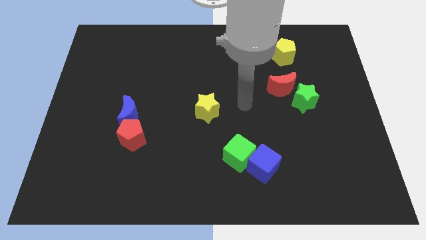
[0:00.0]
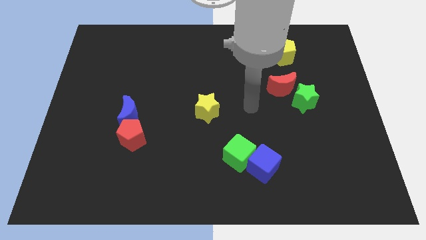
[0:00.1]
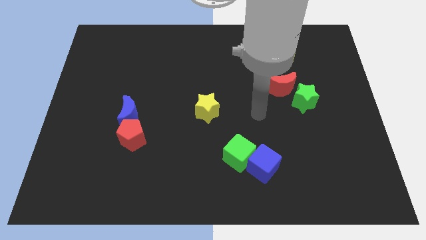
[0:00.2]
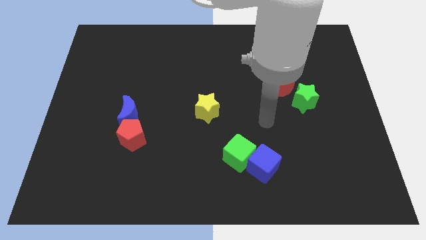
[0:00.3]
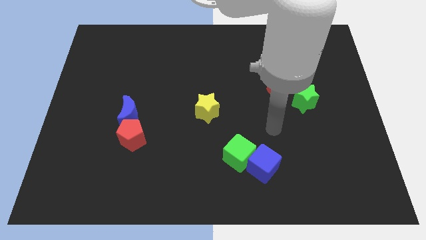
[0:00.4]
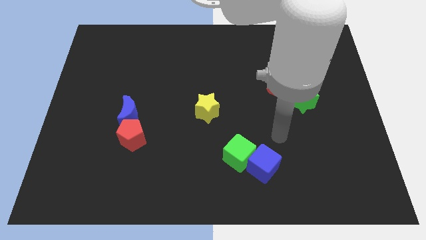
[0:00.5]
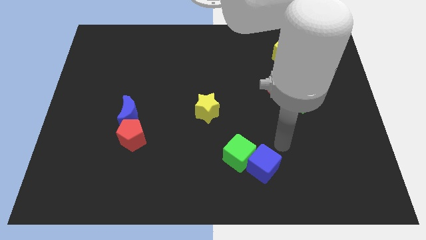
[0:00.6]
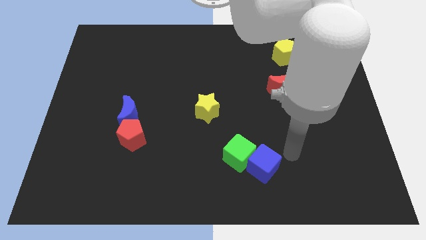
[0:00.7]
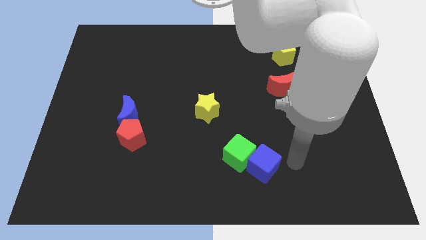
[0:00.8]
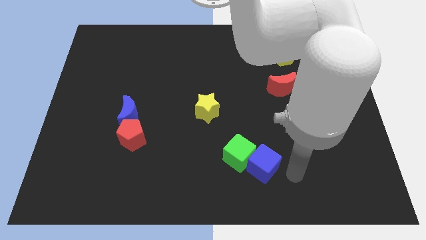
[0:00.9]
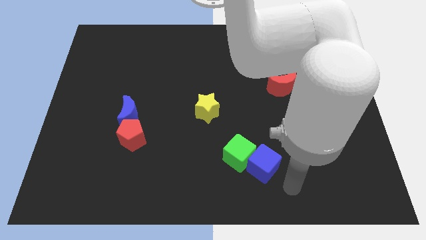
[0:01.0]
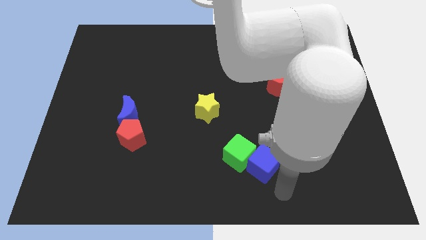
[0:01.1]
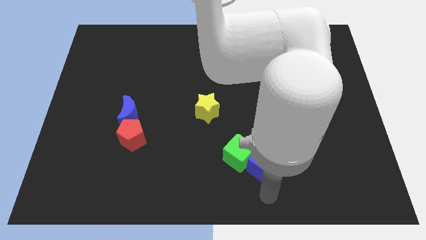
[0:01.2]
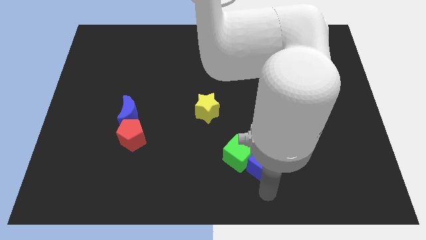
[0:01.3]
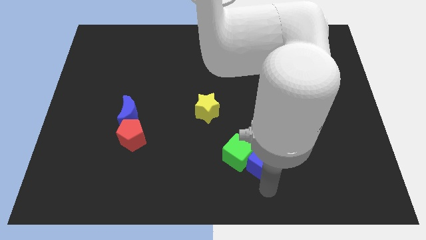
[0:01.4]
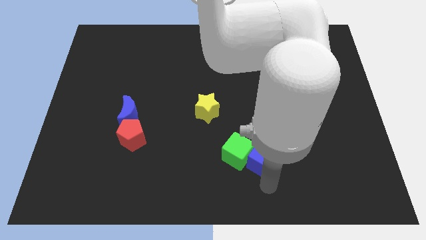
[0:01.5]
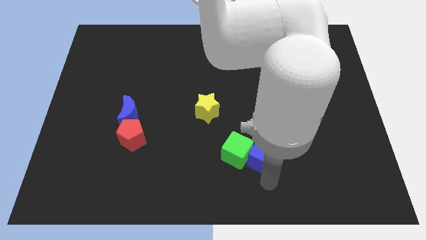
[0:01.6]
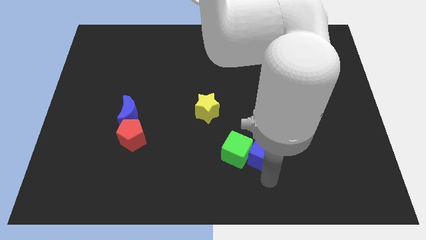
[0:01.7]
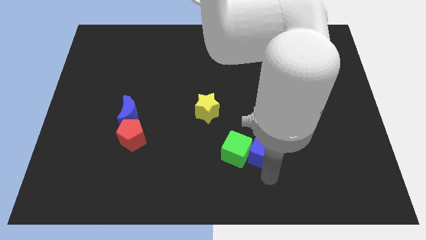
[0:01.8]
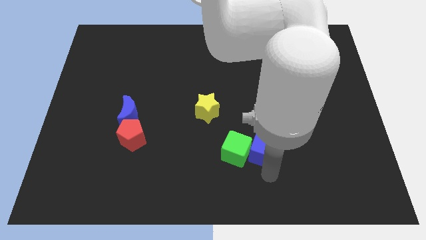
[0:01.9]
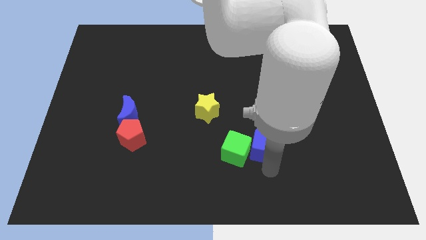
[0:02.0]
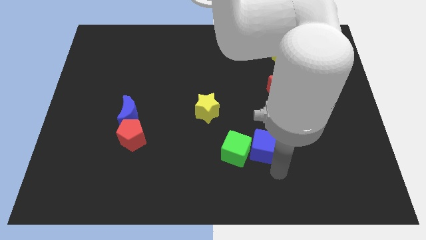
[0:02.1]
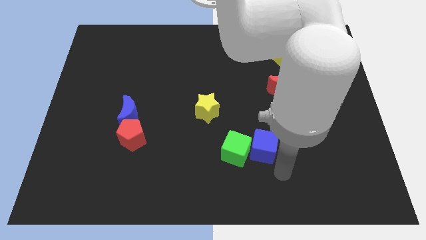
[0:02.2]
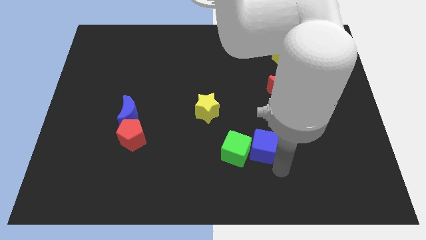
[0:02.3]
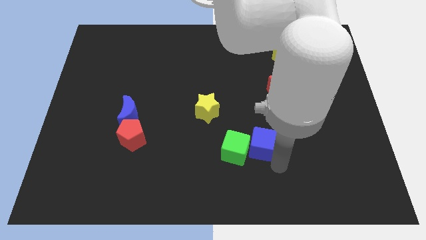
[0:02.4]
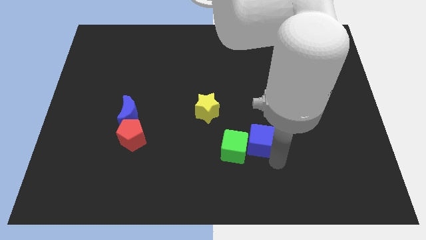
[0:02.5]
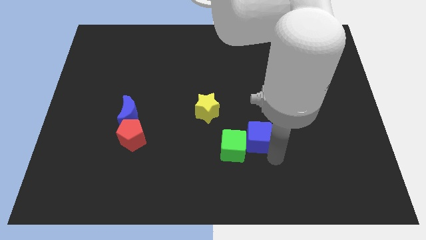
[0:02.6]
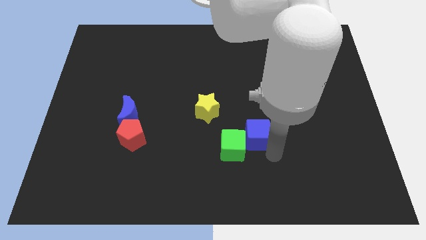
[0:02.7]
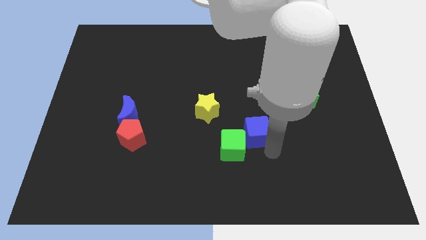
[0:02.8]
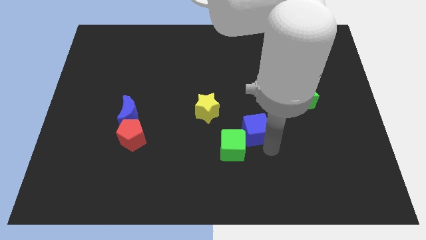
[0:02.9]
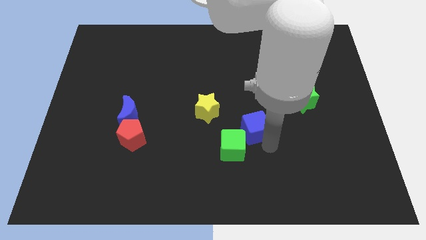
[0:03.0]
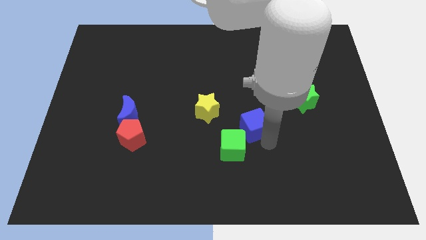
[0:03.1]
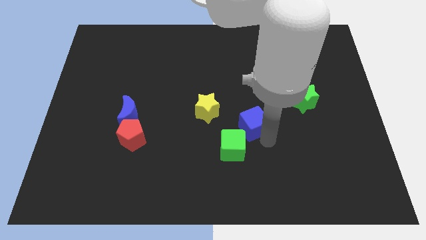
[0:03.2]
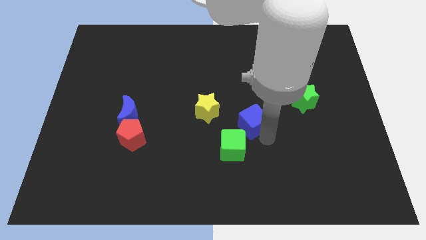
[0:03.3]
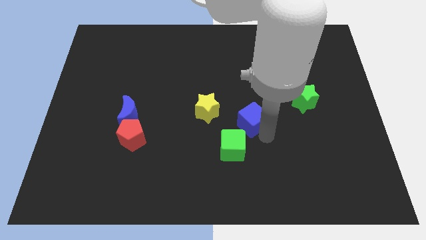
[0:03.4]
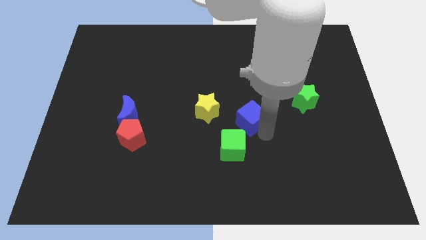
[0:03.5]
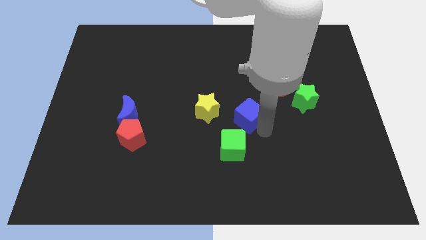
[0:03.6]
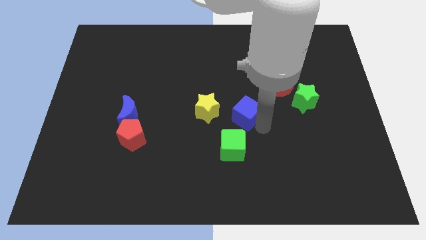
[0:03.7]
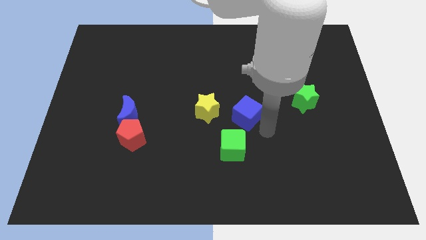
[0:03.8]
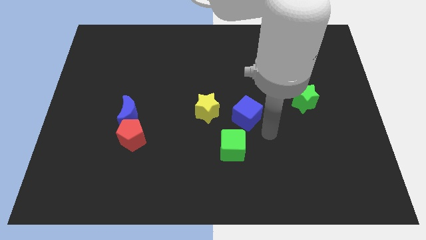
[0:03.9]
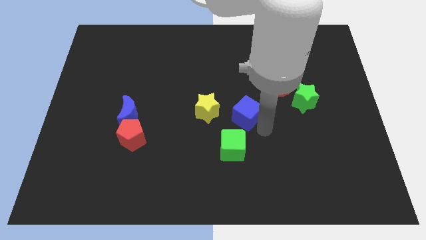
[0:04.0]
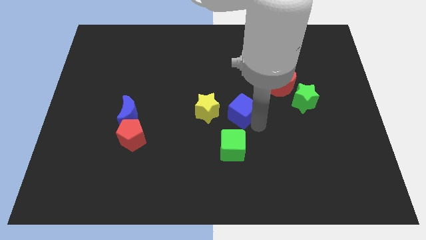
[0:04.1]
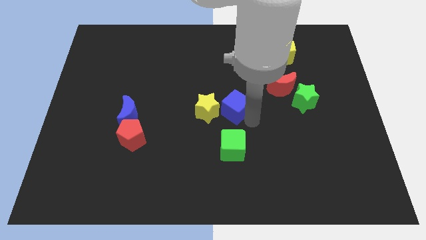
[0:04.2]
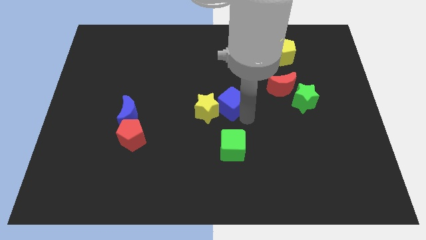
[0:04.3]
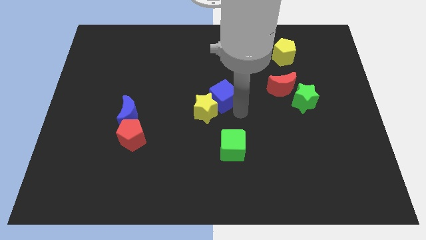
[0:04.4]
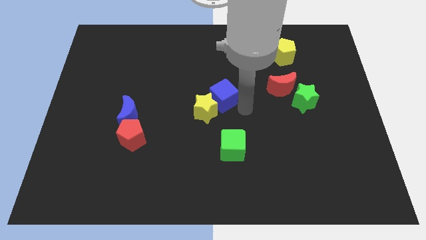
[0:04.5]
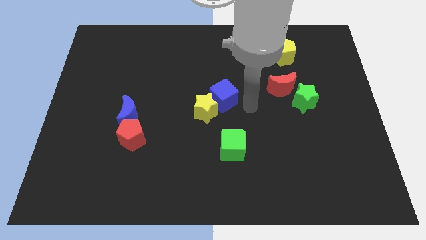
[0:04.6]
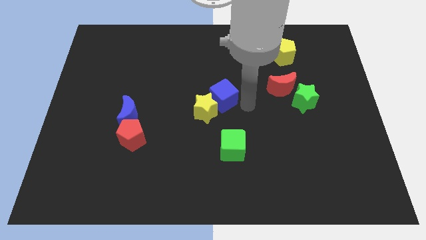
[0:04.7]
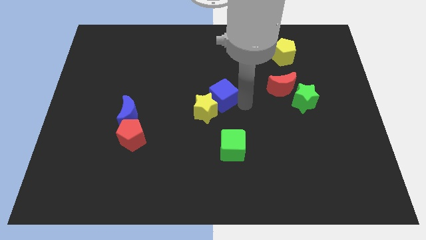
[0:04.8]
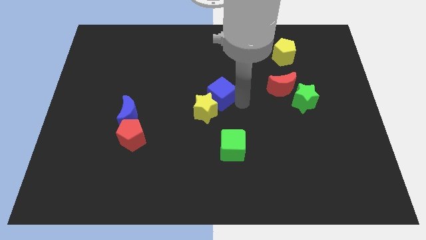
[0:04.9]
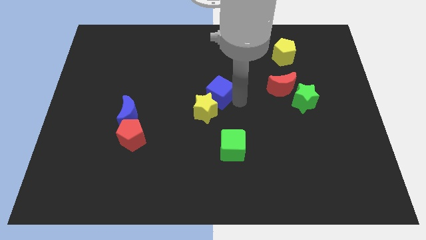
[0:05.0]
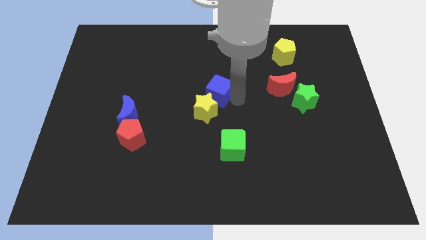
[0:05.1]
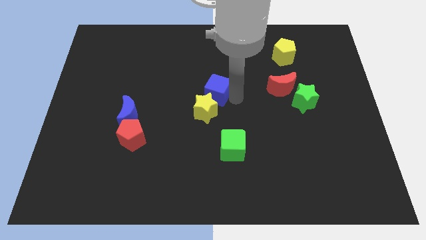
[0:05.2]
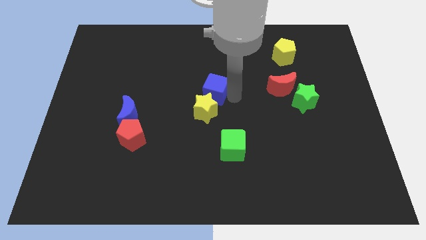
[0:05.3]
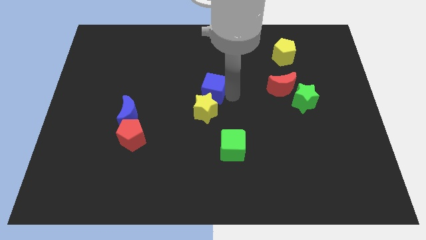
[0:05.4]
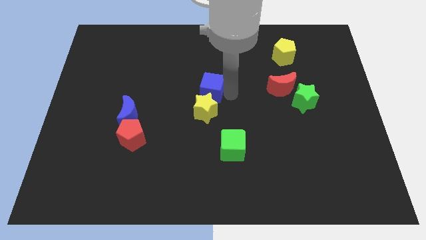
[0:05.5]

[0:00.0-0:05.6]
push the blue cube upwards and left

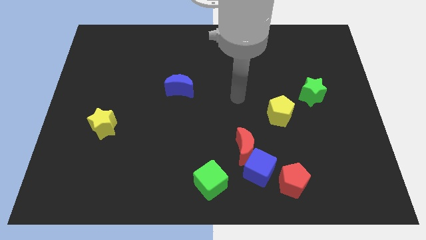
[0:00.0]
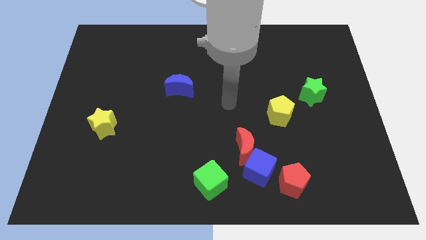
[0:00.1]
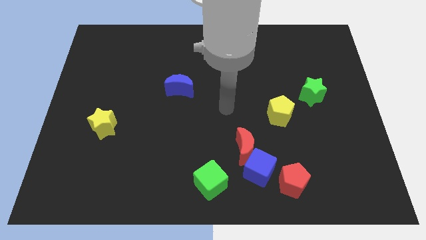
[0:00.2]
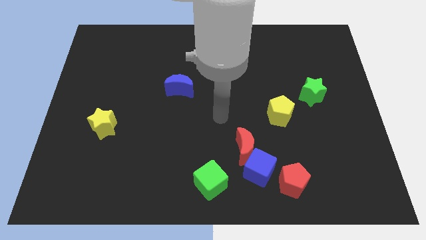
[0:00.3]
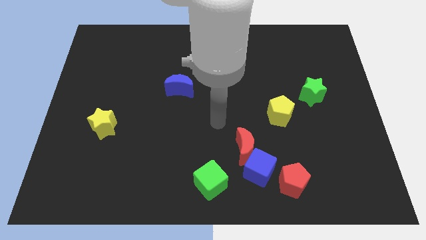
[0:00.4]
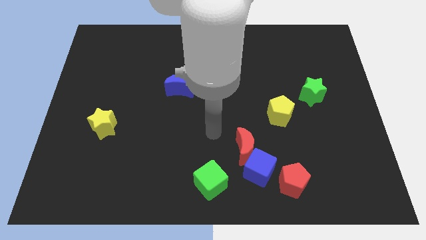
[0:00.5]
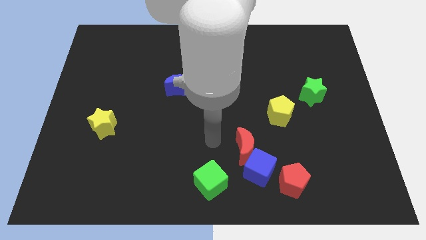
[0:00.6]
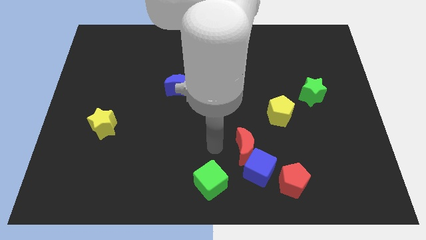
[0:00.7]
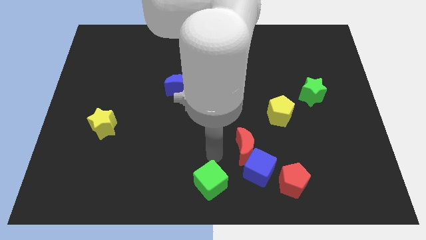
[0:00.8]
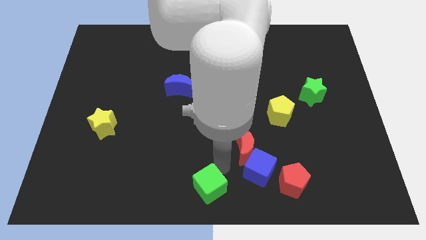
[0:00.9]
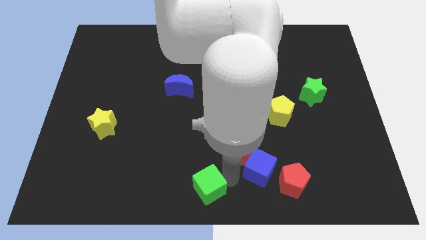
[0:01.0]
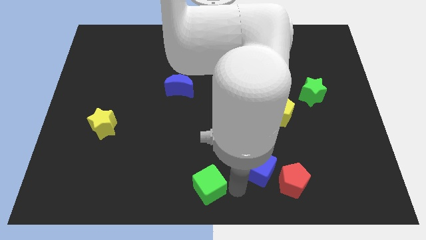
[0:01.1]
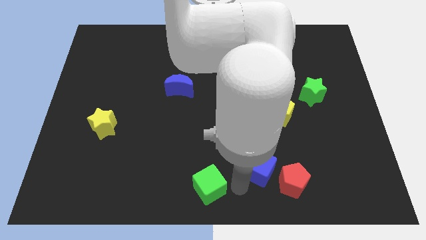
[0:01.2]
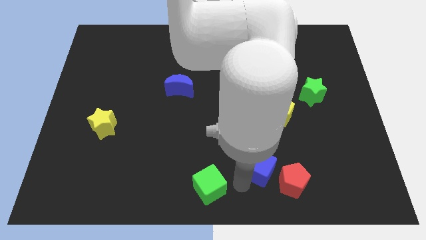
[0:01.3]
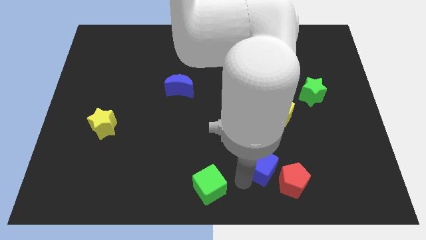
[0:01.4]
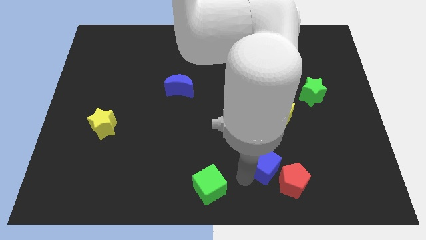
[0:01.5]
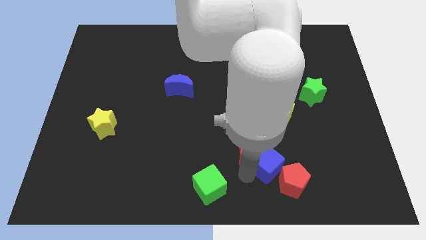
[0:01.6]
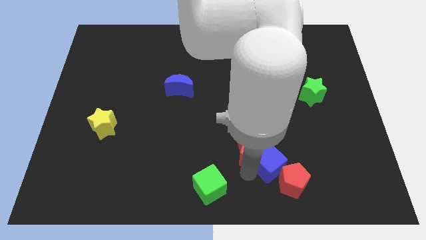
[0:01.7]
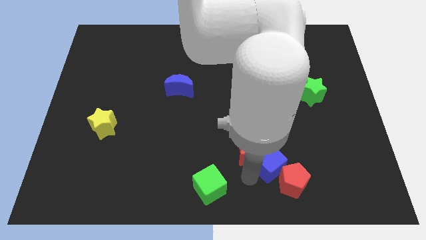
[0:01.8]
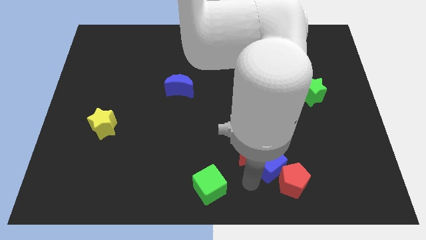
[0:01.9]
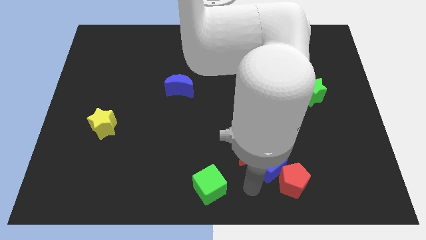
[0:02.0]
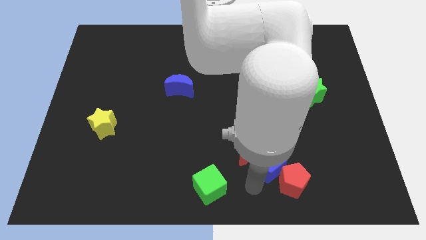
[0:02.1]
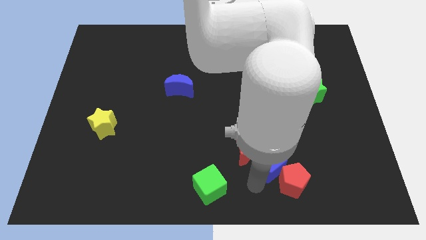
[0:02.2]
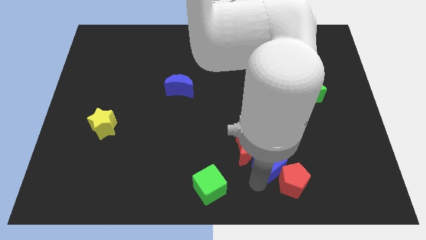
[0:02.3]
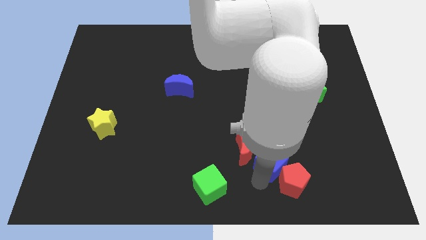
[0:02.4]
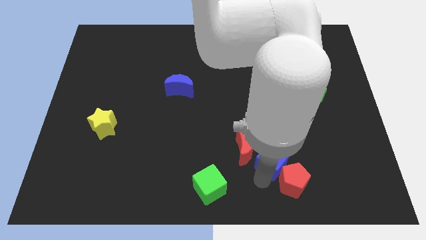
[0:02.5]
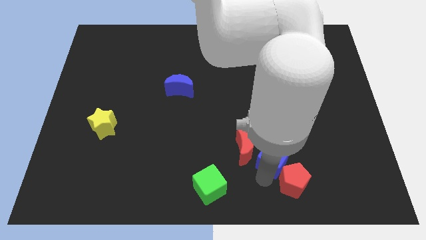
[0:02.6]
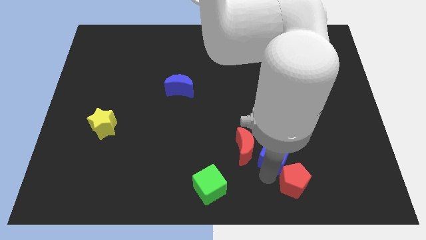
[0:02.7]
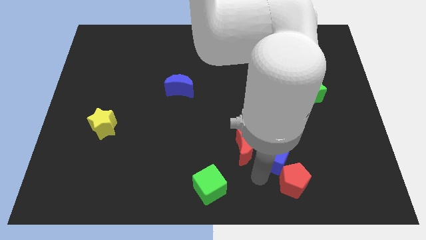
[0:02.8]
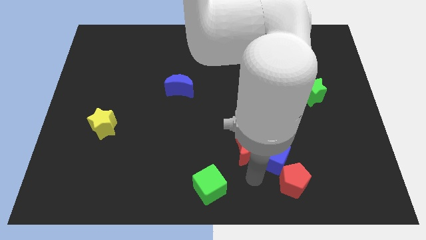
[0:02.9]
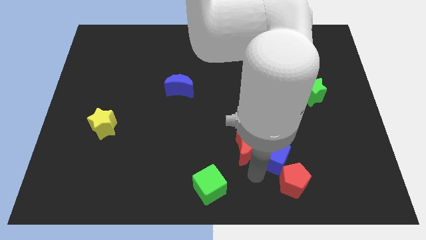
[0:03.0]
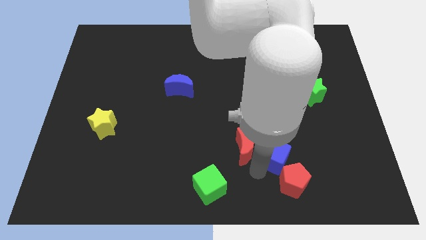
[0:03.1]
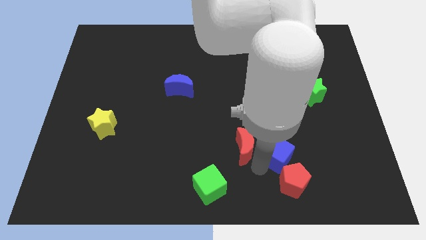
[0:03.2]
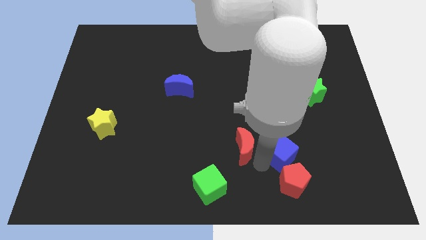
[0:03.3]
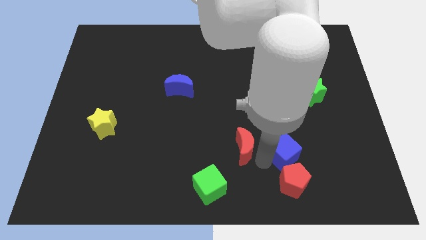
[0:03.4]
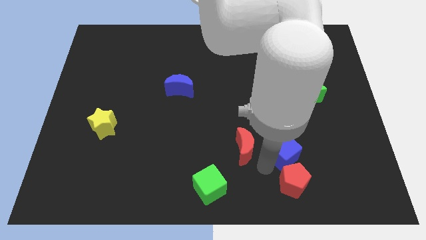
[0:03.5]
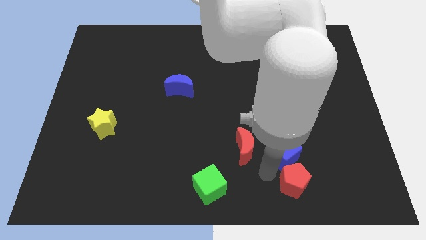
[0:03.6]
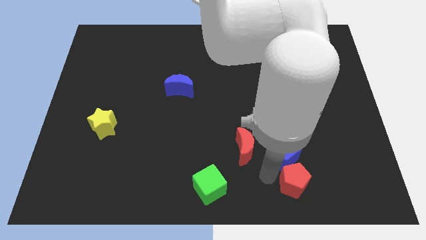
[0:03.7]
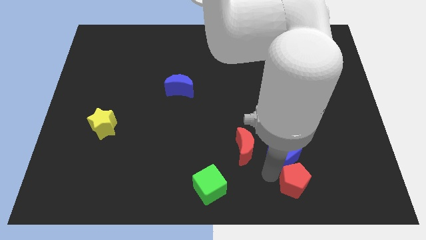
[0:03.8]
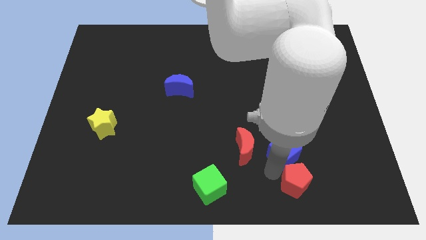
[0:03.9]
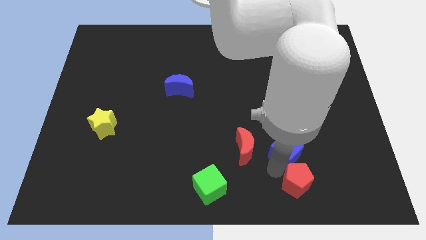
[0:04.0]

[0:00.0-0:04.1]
slightly slide the blue cube up and then right
